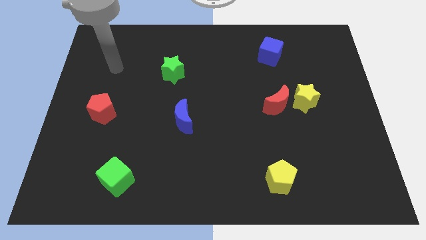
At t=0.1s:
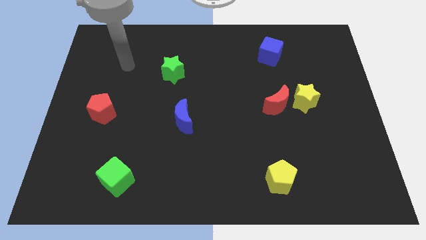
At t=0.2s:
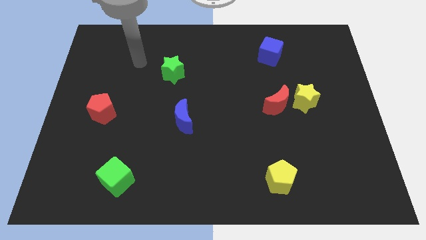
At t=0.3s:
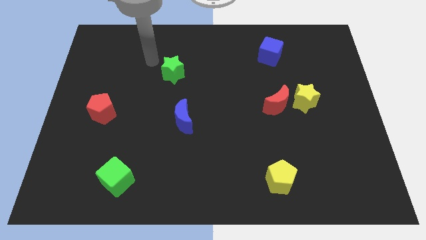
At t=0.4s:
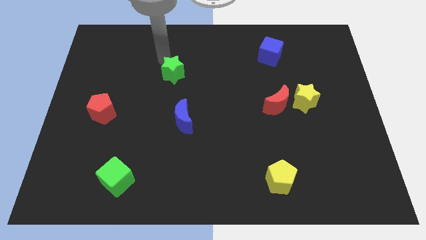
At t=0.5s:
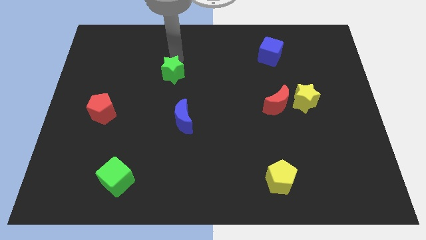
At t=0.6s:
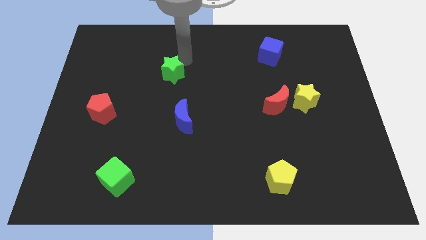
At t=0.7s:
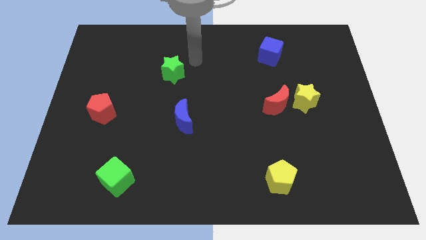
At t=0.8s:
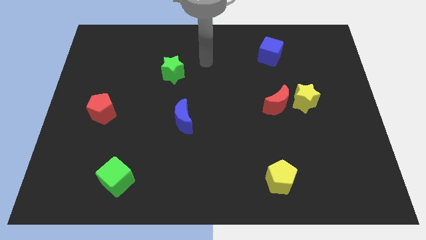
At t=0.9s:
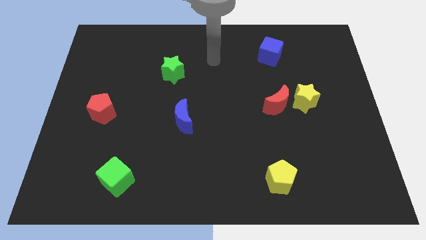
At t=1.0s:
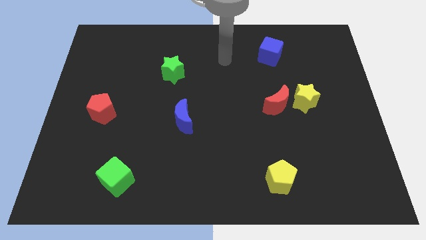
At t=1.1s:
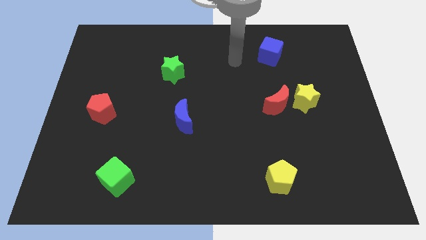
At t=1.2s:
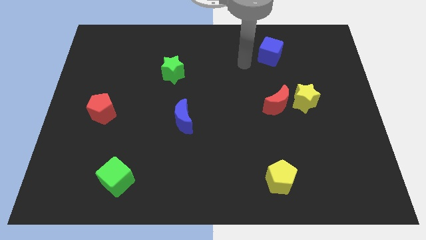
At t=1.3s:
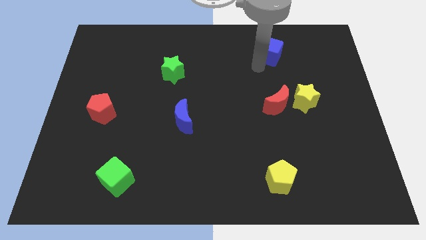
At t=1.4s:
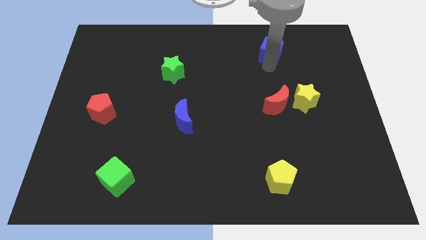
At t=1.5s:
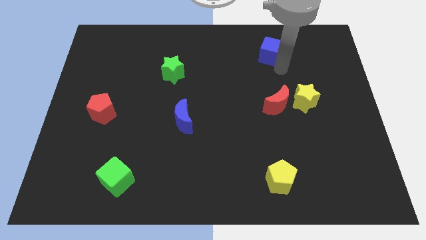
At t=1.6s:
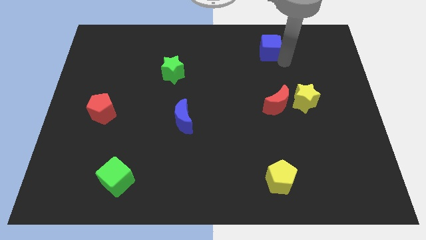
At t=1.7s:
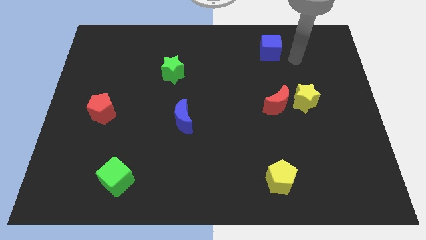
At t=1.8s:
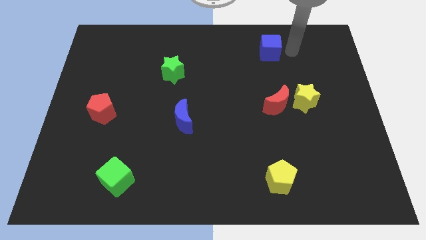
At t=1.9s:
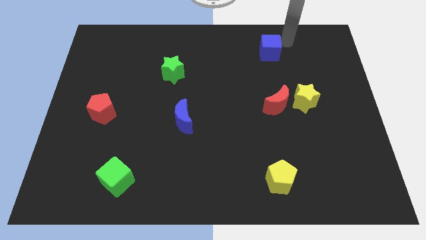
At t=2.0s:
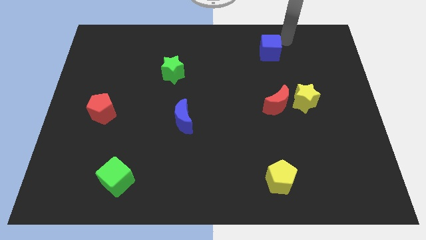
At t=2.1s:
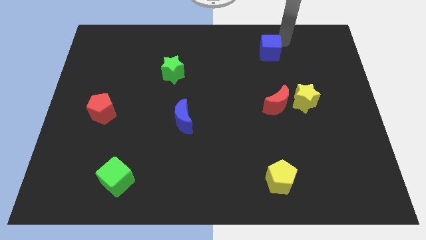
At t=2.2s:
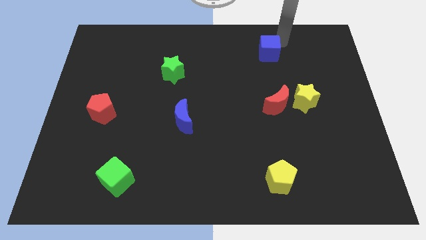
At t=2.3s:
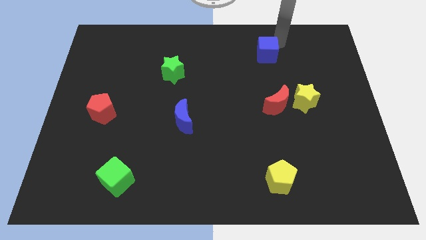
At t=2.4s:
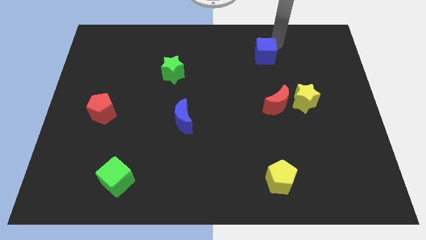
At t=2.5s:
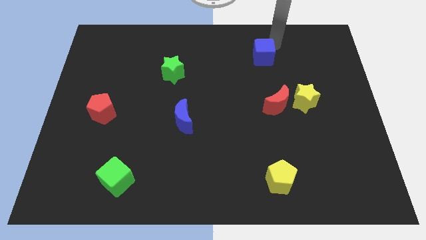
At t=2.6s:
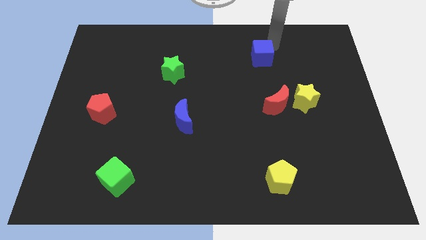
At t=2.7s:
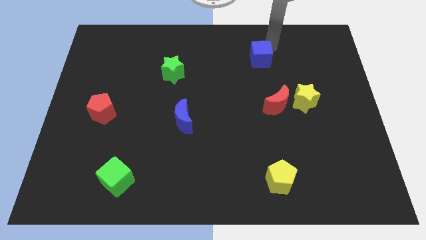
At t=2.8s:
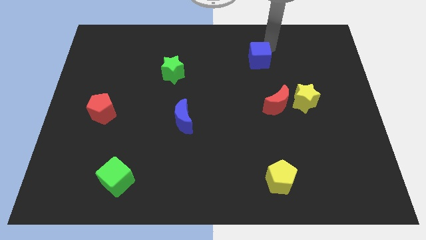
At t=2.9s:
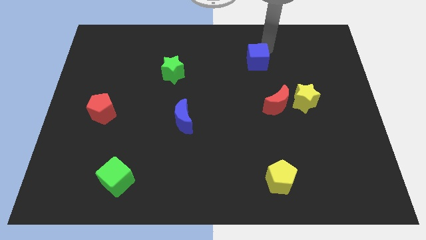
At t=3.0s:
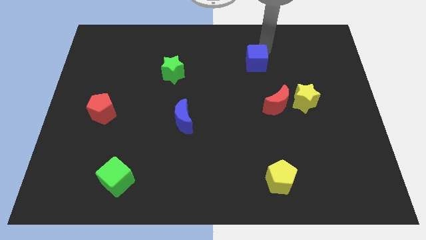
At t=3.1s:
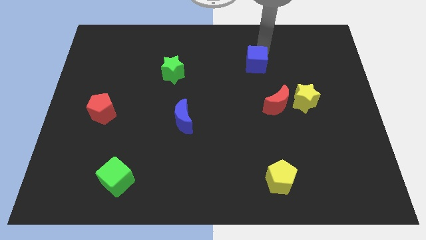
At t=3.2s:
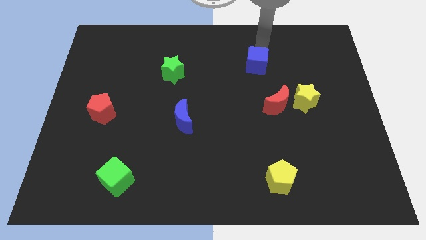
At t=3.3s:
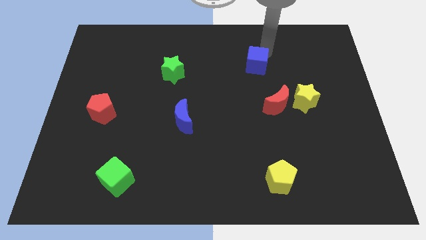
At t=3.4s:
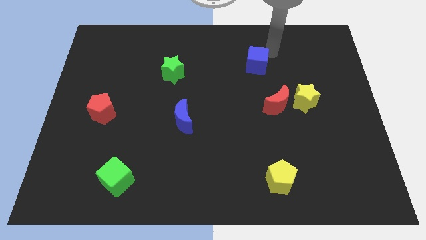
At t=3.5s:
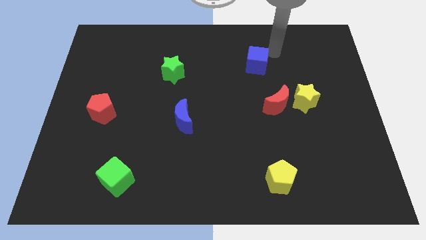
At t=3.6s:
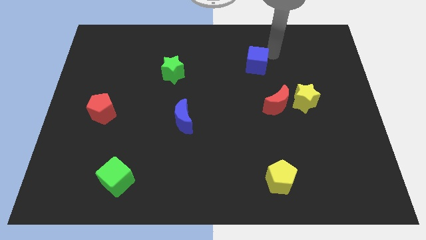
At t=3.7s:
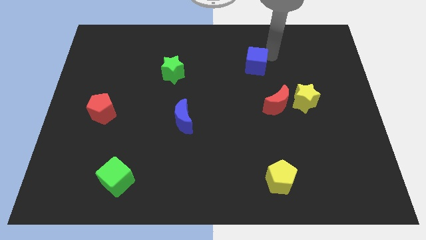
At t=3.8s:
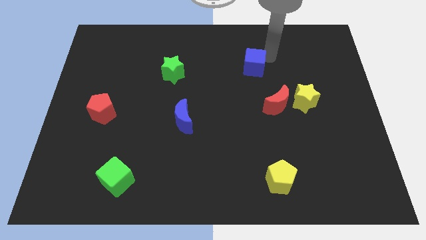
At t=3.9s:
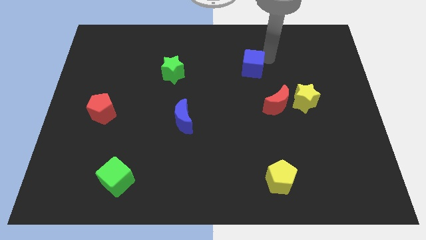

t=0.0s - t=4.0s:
move the blue cube downwards and left a little

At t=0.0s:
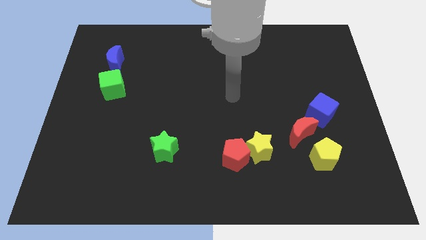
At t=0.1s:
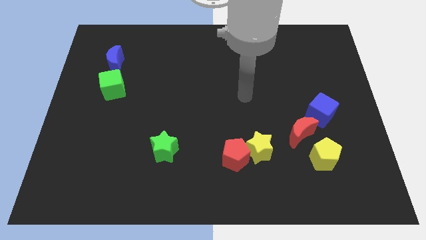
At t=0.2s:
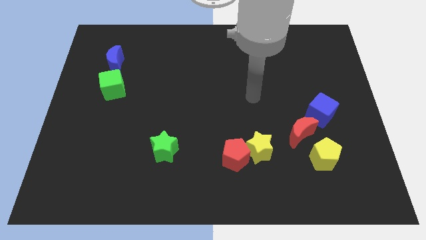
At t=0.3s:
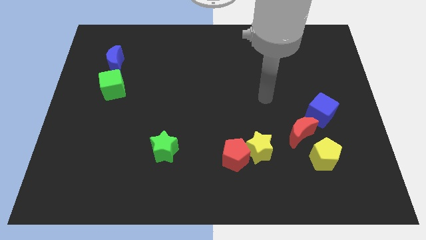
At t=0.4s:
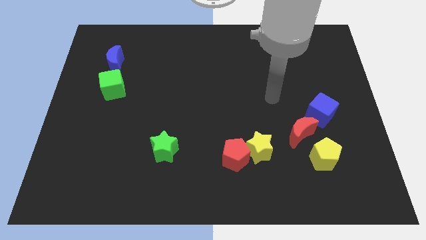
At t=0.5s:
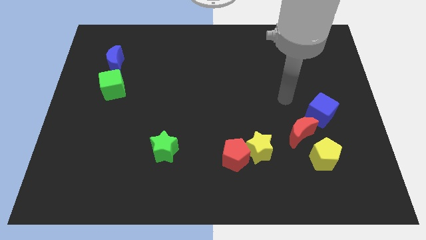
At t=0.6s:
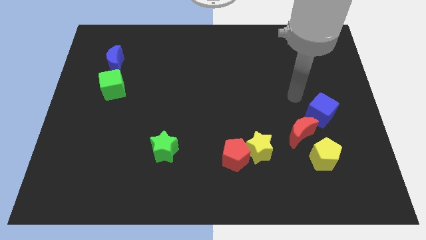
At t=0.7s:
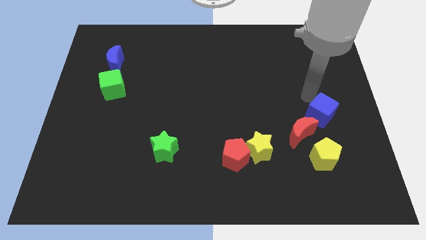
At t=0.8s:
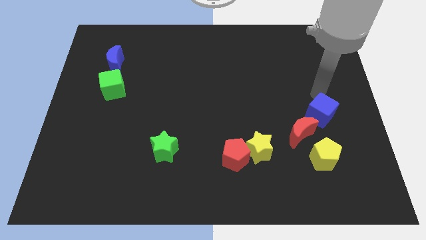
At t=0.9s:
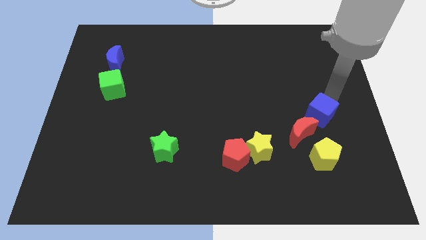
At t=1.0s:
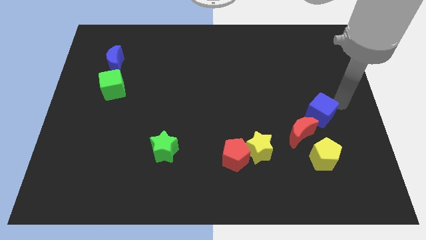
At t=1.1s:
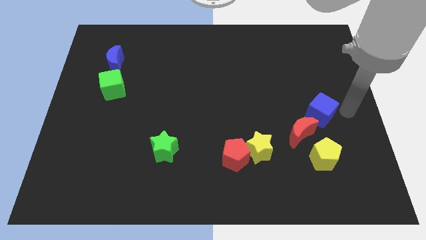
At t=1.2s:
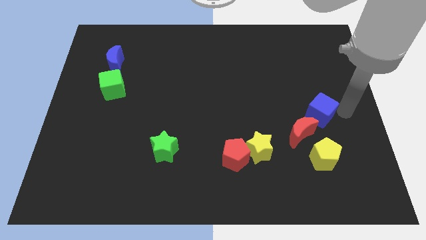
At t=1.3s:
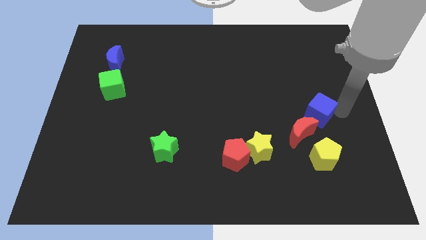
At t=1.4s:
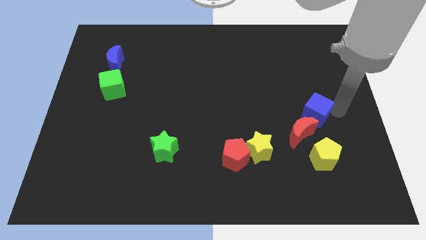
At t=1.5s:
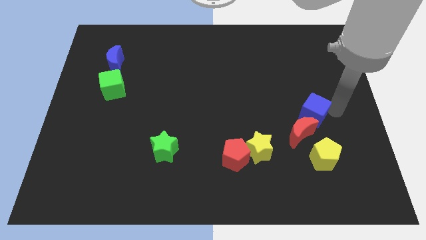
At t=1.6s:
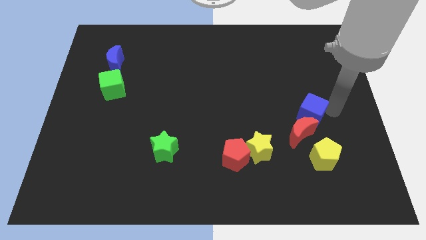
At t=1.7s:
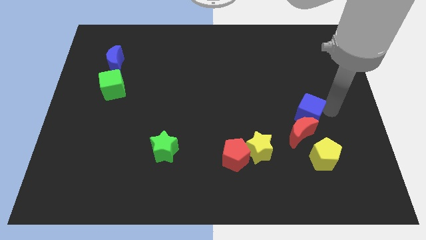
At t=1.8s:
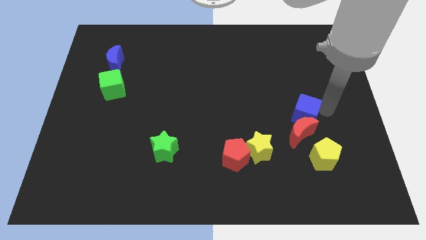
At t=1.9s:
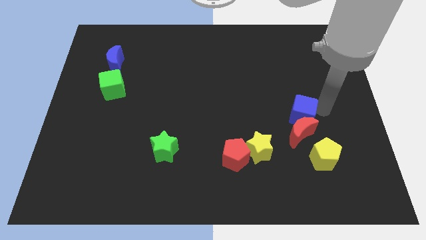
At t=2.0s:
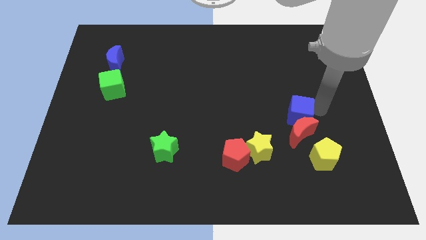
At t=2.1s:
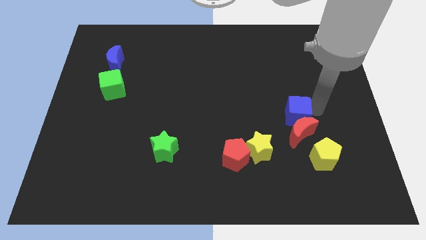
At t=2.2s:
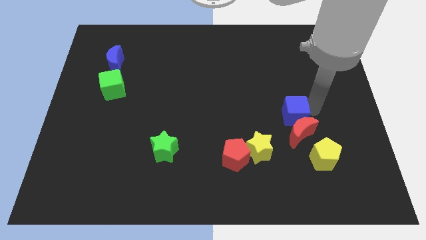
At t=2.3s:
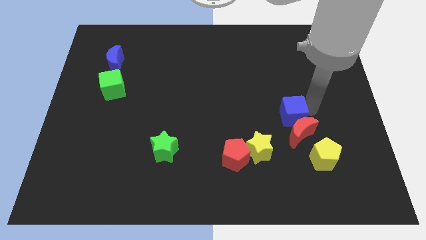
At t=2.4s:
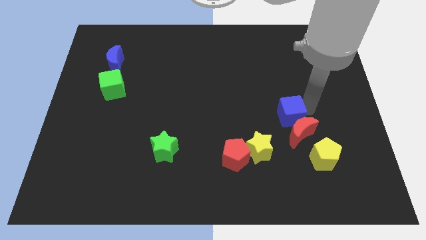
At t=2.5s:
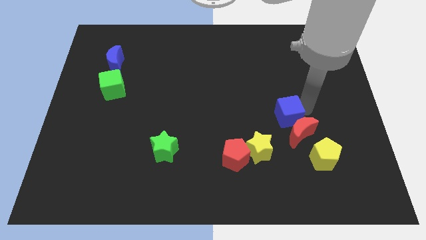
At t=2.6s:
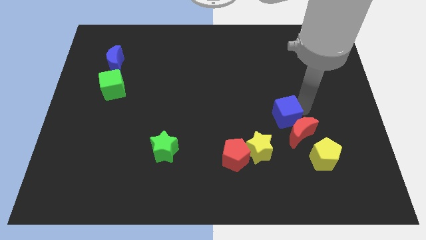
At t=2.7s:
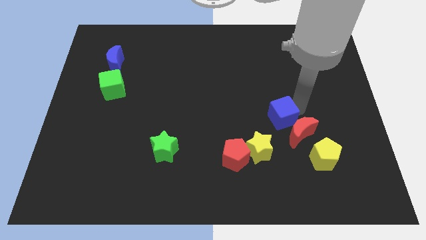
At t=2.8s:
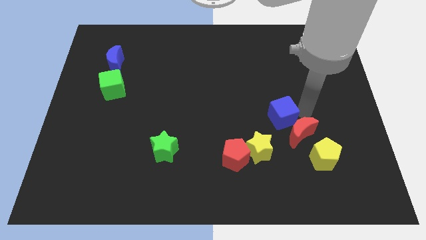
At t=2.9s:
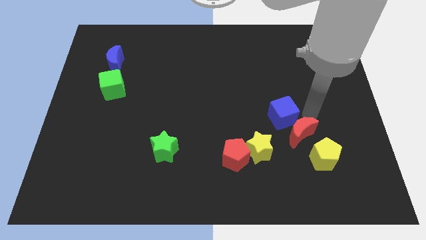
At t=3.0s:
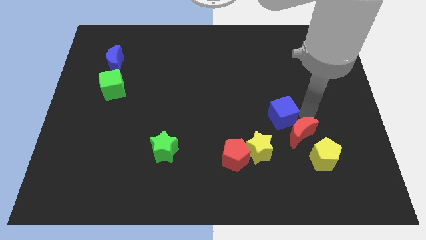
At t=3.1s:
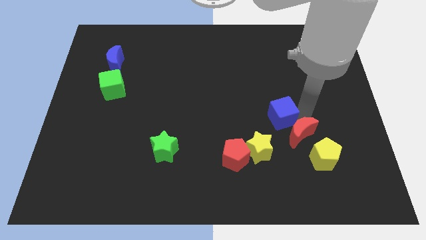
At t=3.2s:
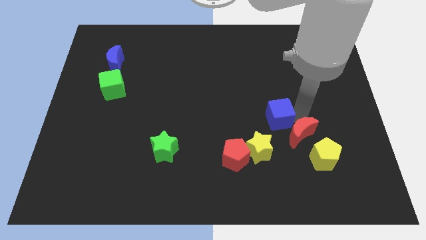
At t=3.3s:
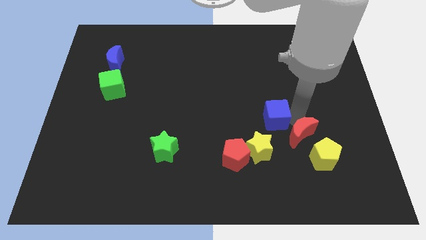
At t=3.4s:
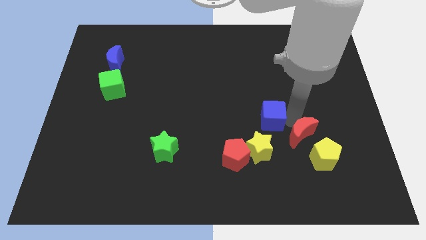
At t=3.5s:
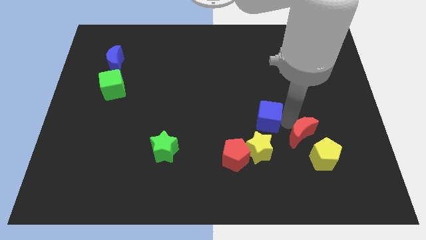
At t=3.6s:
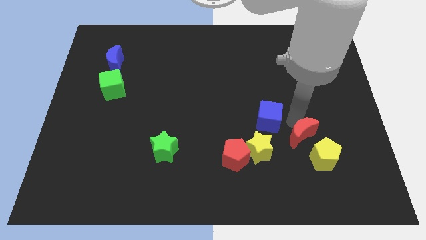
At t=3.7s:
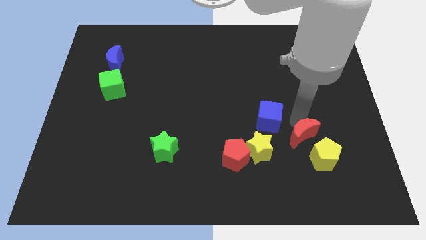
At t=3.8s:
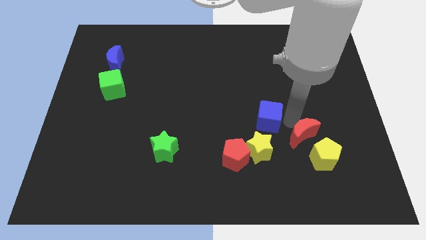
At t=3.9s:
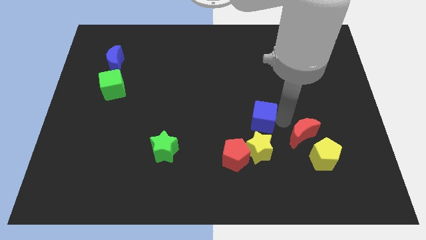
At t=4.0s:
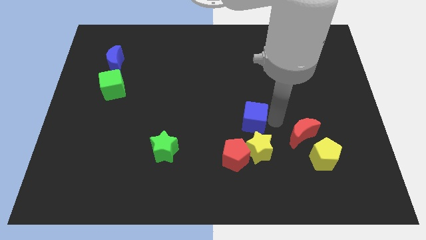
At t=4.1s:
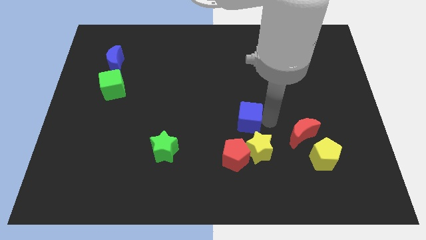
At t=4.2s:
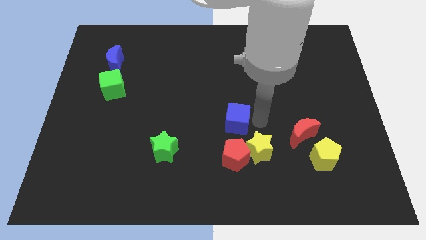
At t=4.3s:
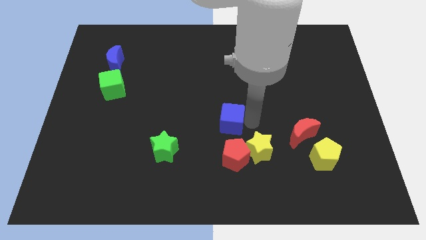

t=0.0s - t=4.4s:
slide the blue cube to the left
